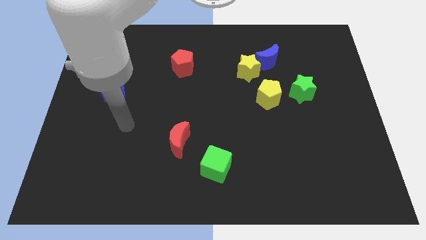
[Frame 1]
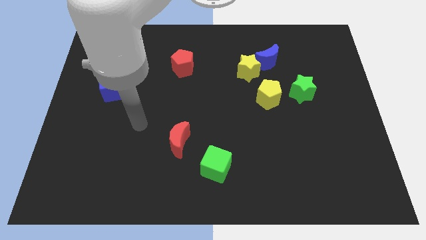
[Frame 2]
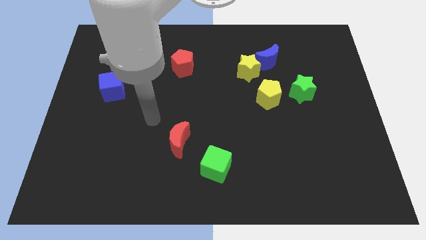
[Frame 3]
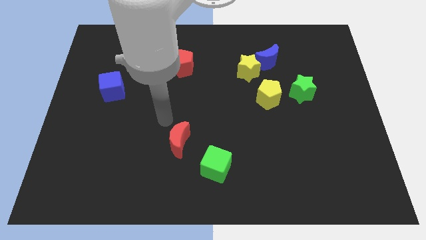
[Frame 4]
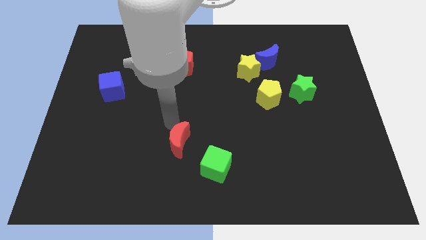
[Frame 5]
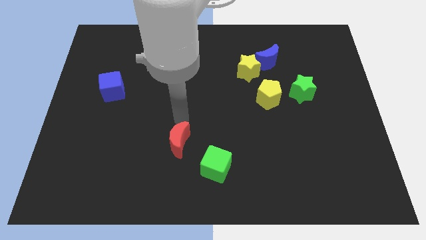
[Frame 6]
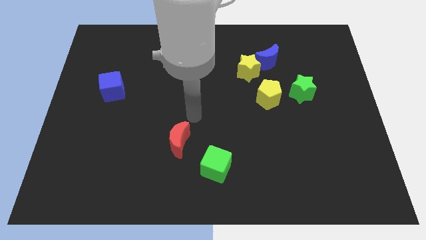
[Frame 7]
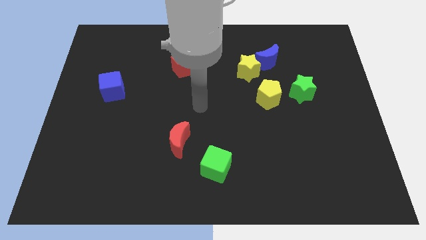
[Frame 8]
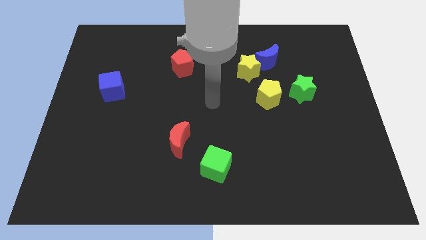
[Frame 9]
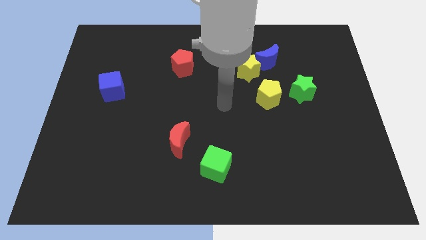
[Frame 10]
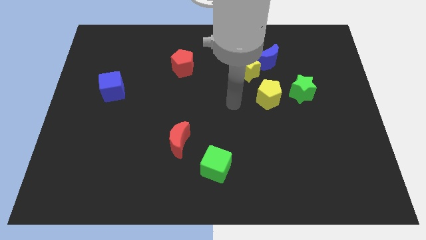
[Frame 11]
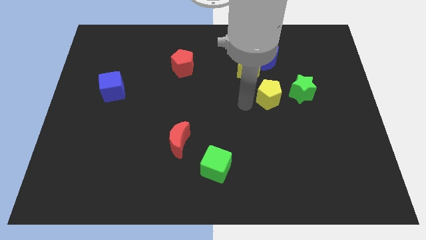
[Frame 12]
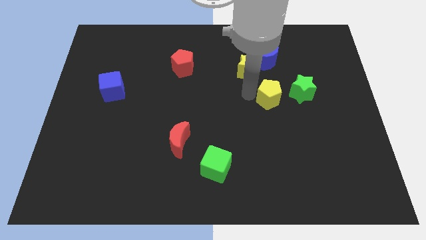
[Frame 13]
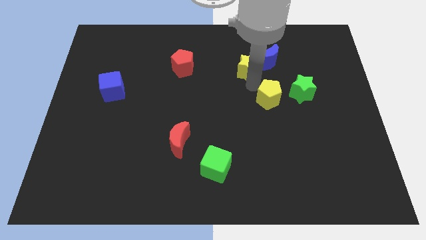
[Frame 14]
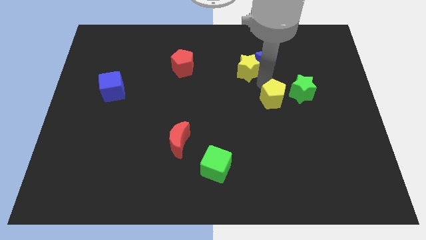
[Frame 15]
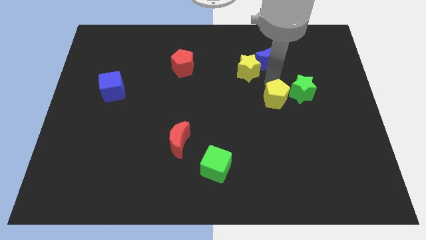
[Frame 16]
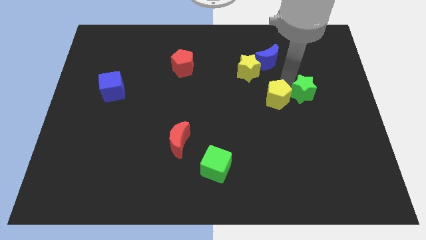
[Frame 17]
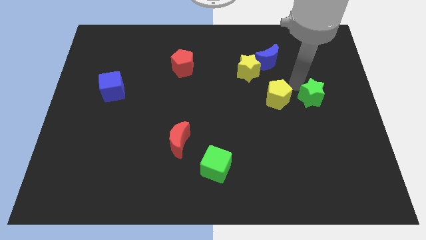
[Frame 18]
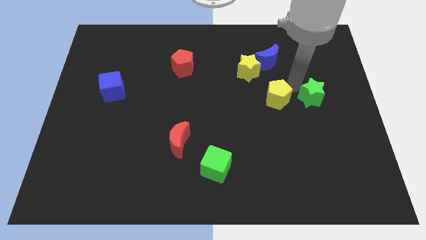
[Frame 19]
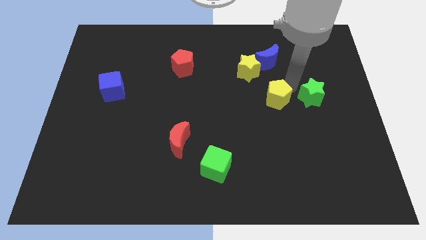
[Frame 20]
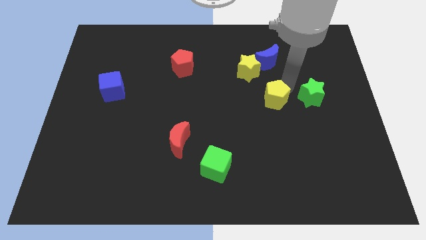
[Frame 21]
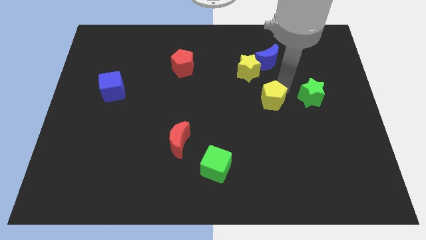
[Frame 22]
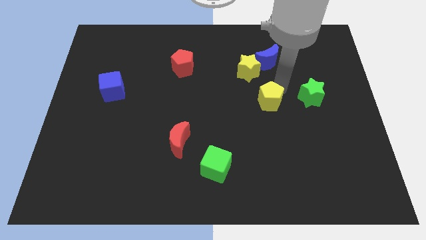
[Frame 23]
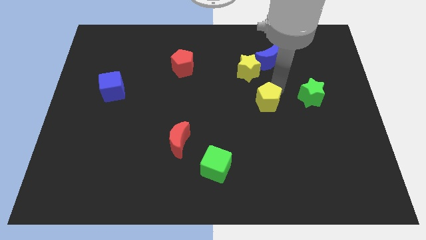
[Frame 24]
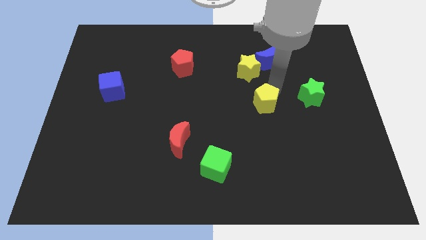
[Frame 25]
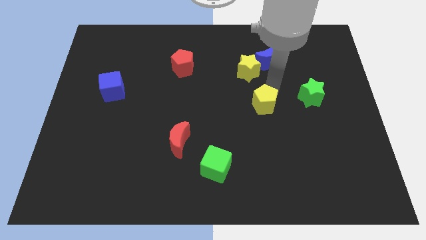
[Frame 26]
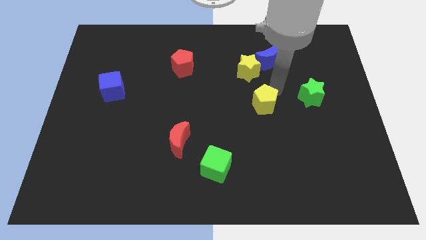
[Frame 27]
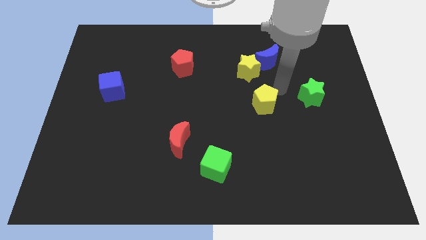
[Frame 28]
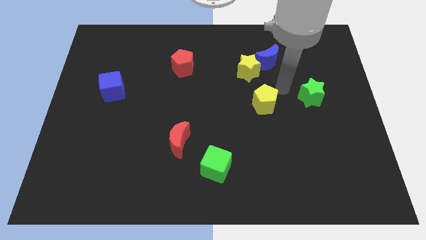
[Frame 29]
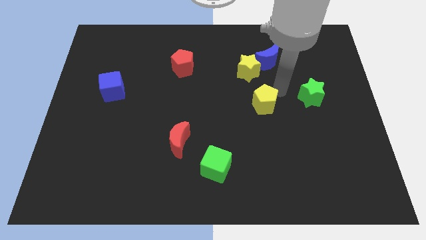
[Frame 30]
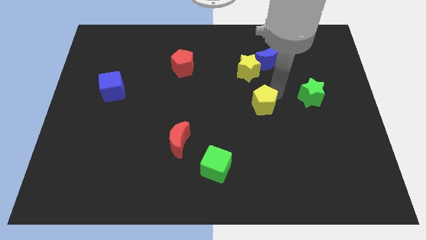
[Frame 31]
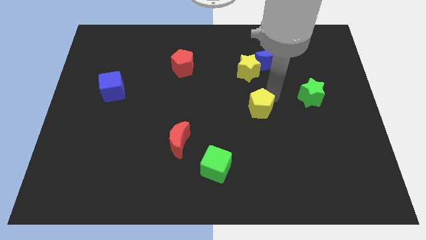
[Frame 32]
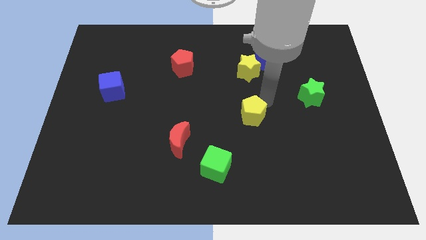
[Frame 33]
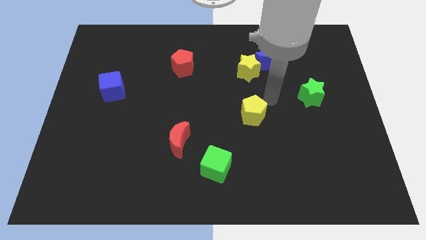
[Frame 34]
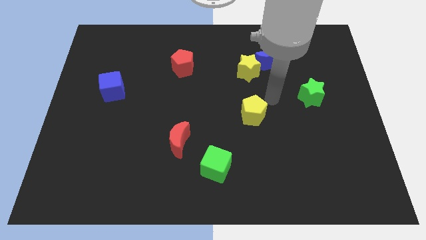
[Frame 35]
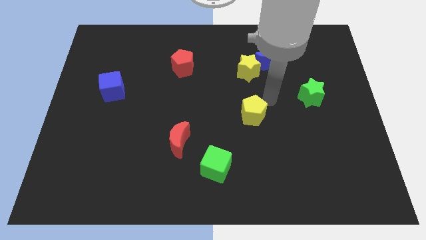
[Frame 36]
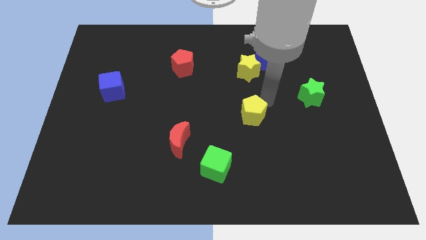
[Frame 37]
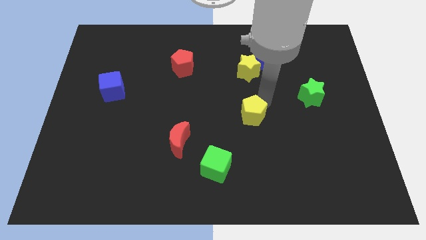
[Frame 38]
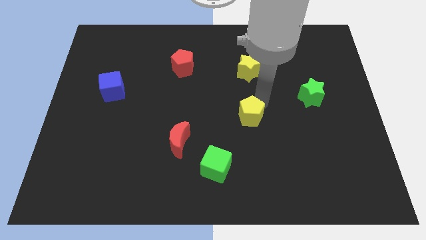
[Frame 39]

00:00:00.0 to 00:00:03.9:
push the yellow pentagon downwards and to the left a bit

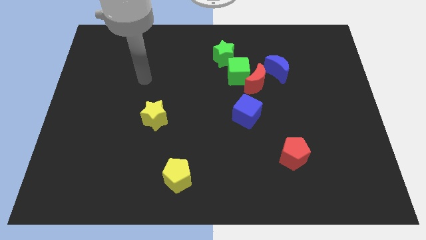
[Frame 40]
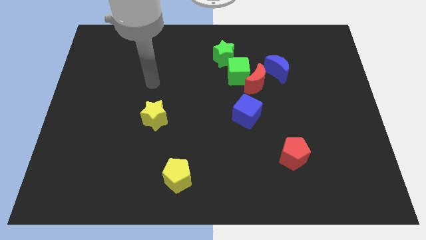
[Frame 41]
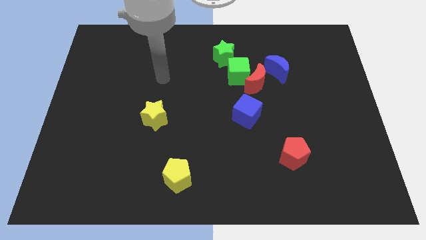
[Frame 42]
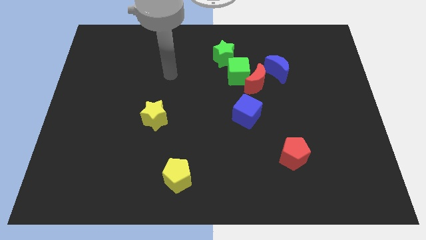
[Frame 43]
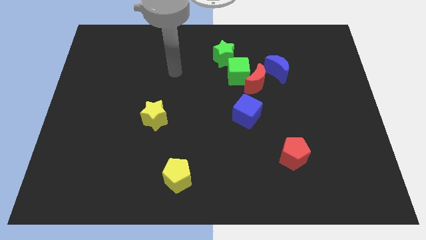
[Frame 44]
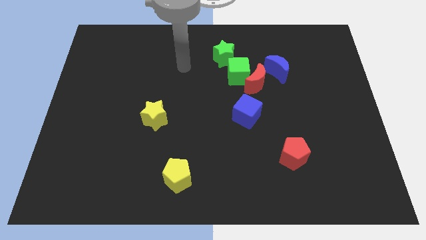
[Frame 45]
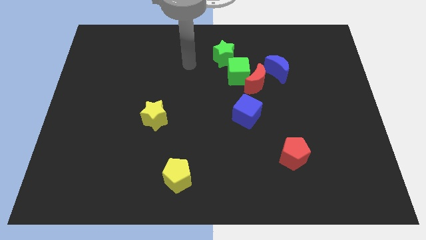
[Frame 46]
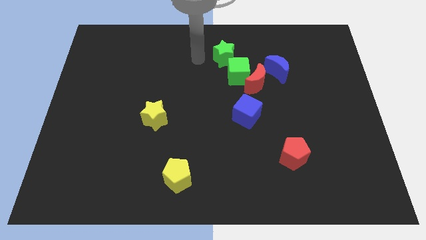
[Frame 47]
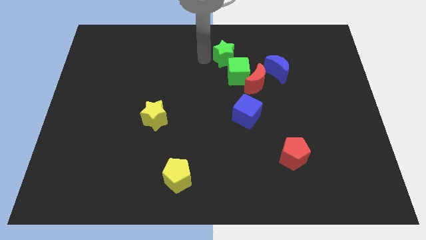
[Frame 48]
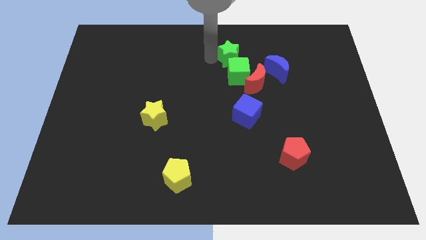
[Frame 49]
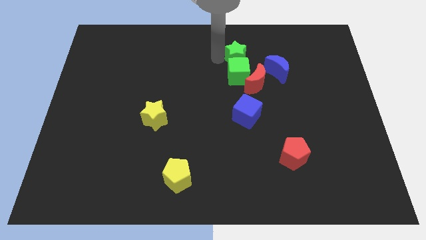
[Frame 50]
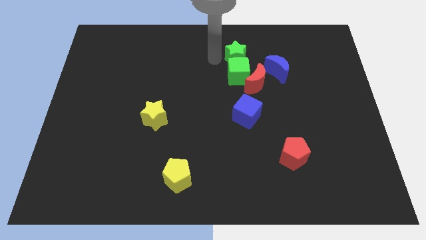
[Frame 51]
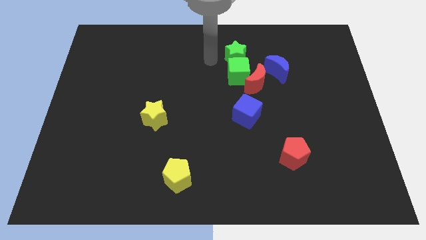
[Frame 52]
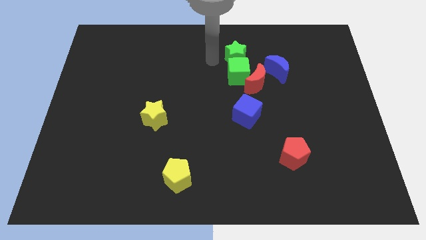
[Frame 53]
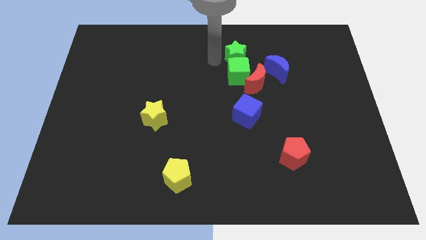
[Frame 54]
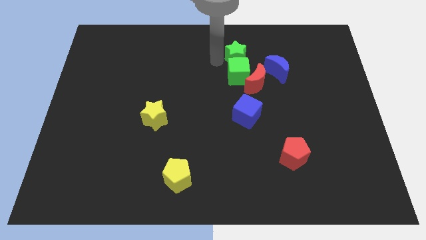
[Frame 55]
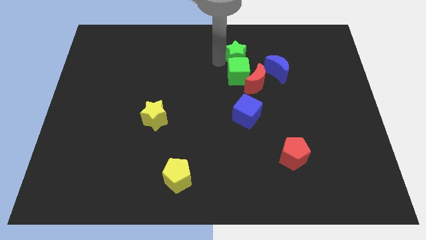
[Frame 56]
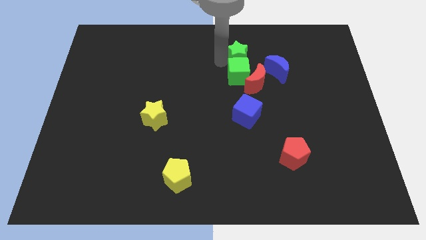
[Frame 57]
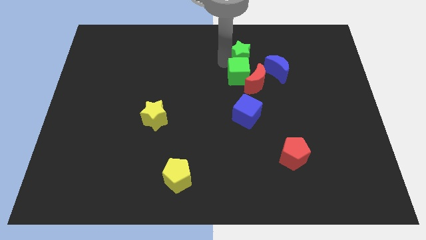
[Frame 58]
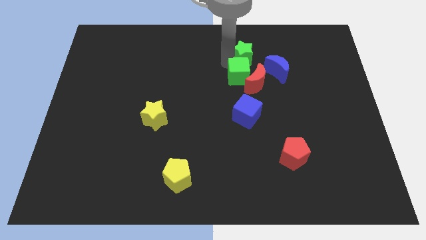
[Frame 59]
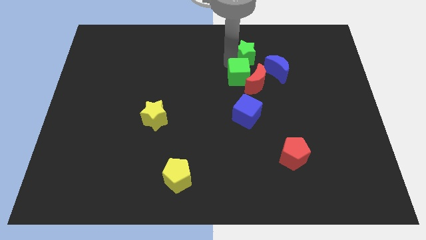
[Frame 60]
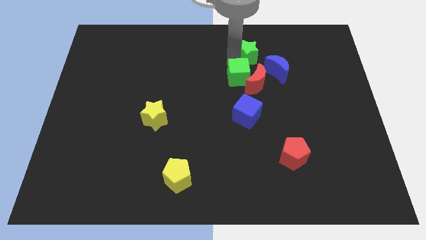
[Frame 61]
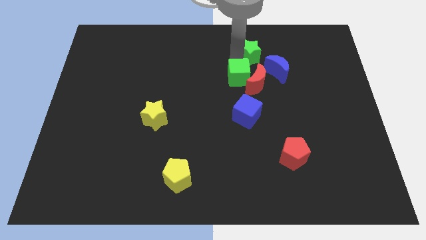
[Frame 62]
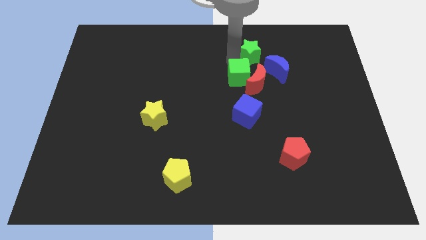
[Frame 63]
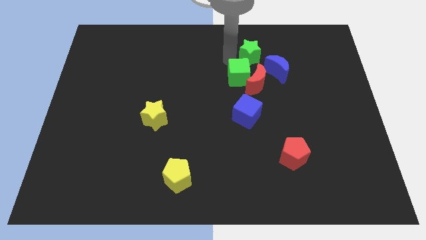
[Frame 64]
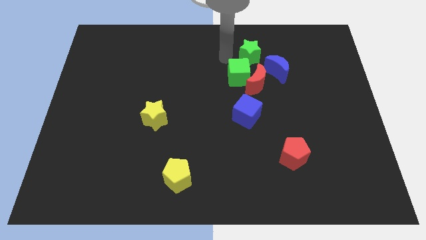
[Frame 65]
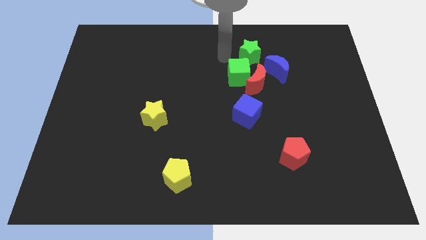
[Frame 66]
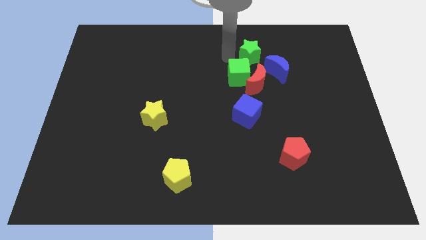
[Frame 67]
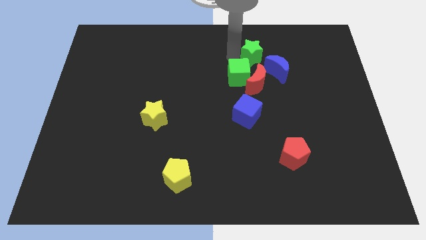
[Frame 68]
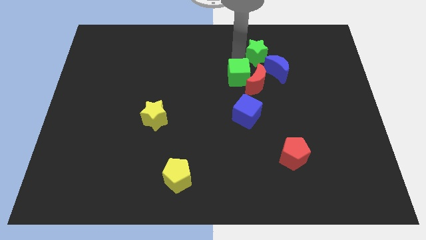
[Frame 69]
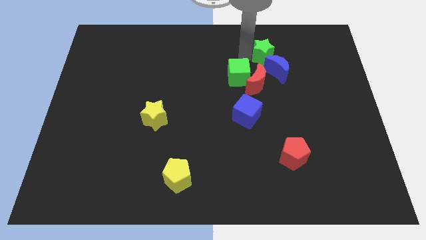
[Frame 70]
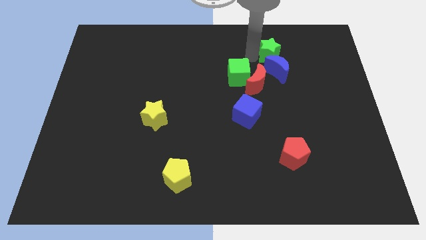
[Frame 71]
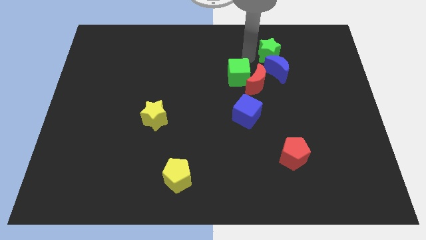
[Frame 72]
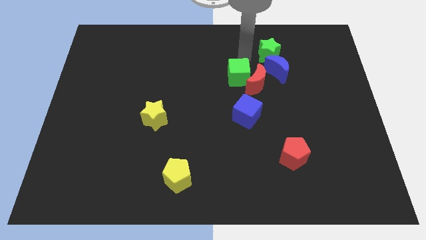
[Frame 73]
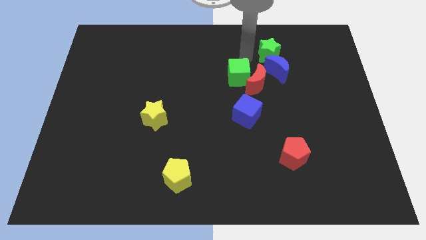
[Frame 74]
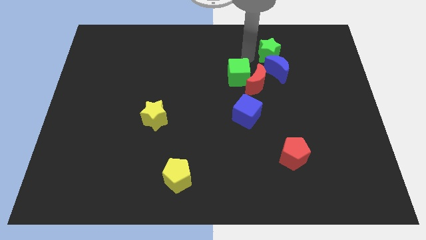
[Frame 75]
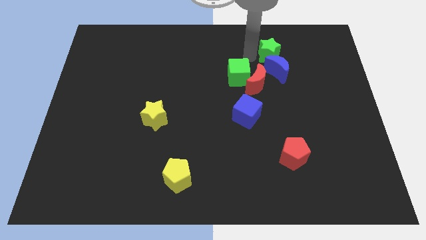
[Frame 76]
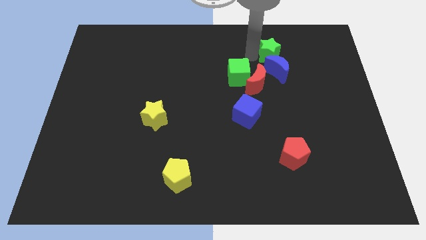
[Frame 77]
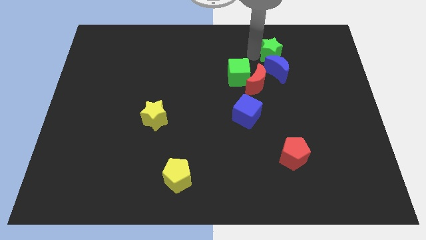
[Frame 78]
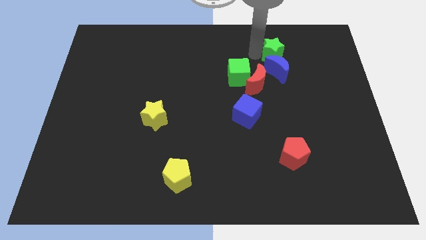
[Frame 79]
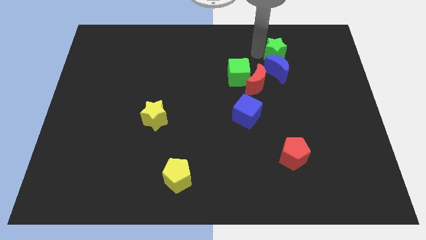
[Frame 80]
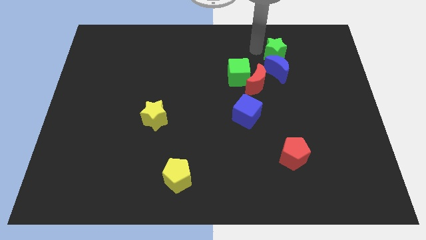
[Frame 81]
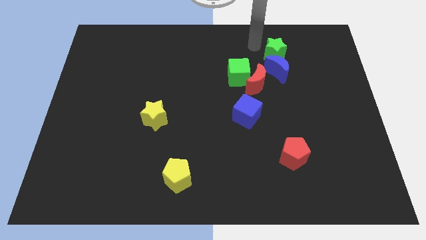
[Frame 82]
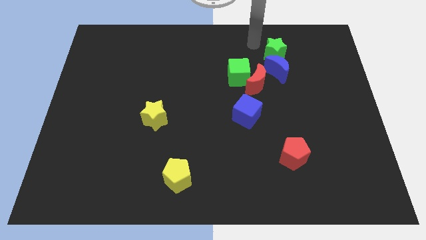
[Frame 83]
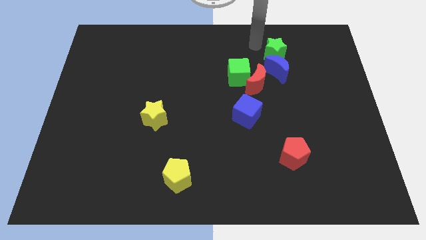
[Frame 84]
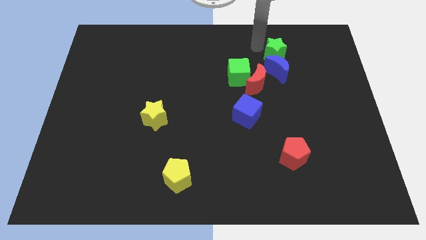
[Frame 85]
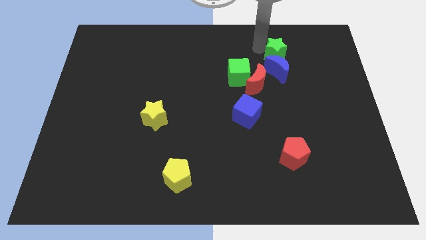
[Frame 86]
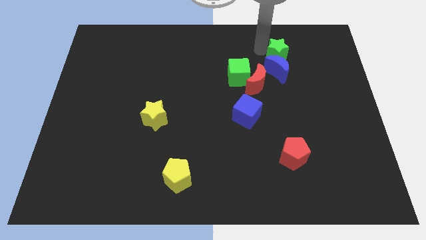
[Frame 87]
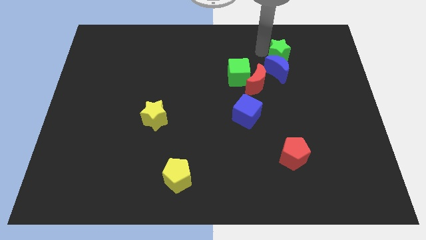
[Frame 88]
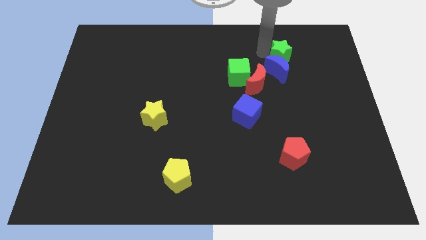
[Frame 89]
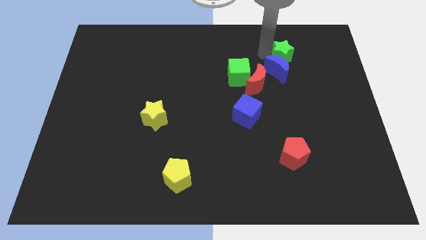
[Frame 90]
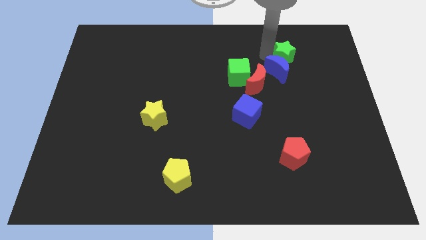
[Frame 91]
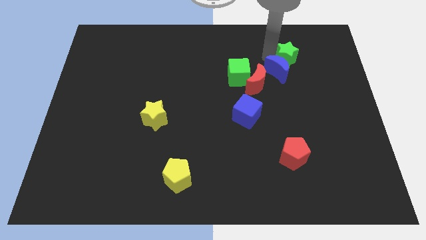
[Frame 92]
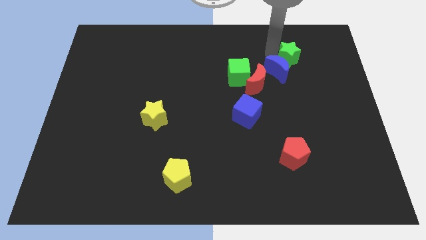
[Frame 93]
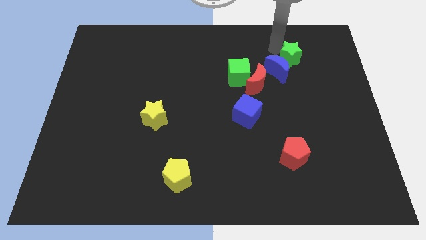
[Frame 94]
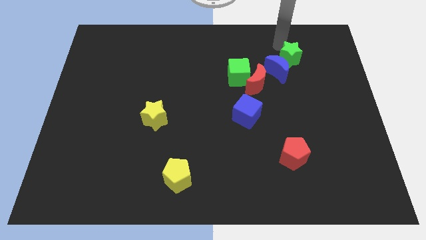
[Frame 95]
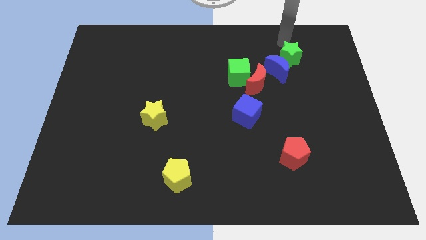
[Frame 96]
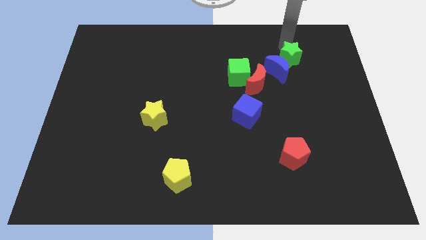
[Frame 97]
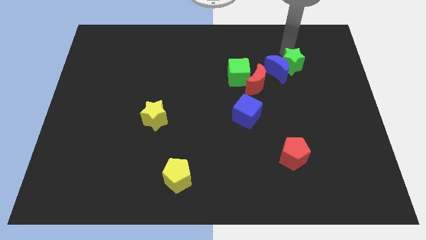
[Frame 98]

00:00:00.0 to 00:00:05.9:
slightly slide the green star down and right diagonally
